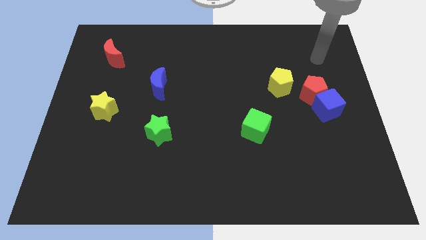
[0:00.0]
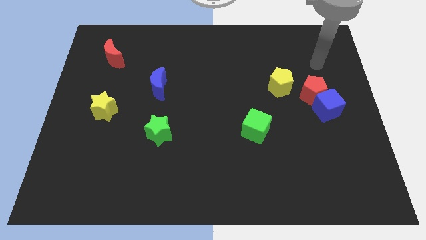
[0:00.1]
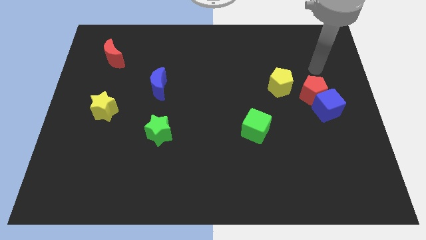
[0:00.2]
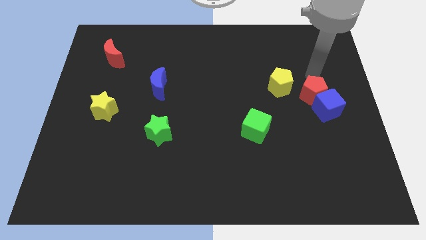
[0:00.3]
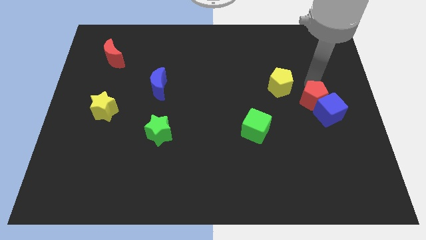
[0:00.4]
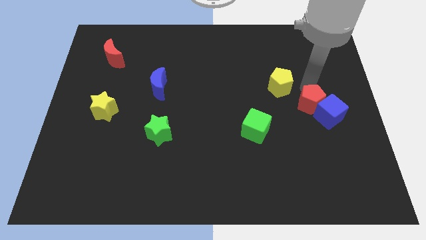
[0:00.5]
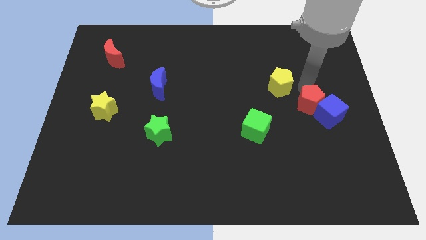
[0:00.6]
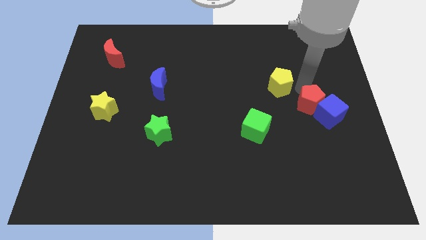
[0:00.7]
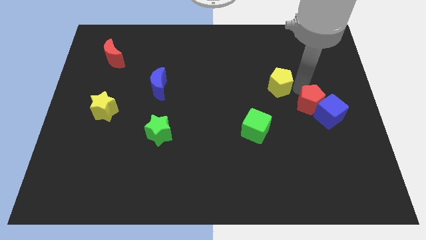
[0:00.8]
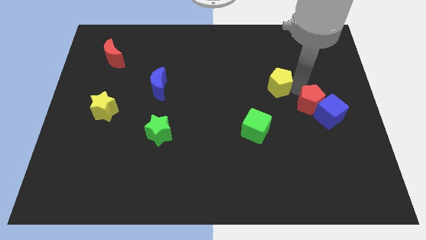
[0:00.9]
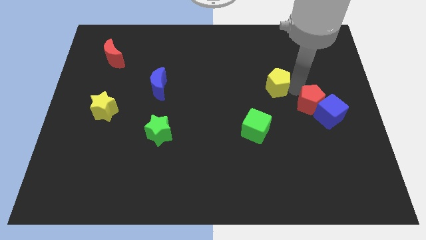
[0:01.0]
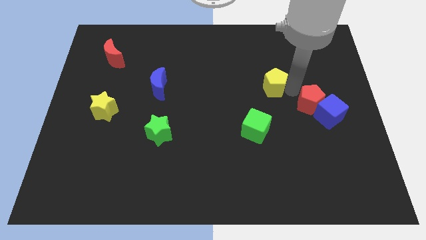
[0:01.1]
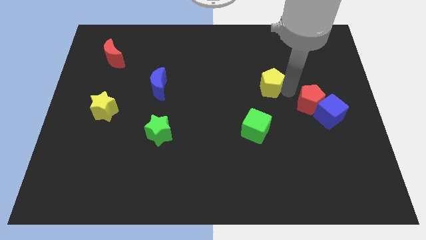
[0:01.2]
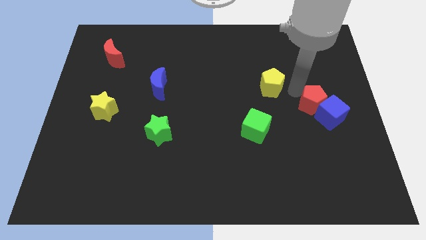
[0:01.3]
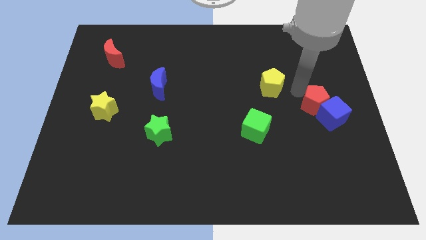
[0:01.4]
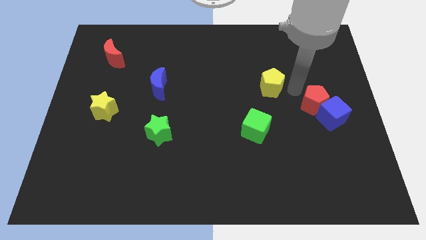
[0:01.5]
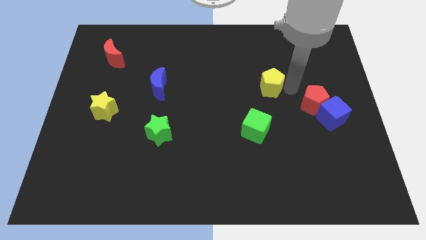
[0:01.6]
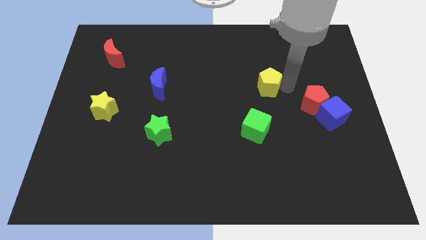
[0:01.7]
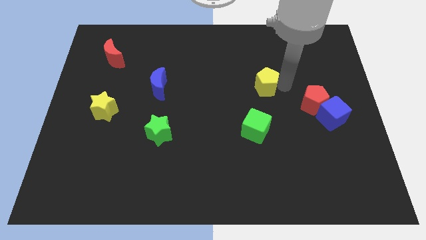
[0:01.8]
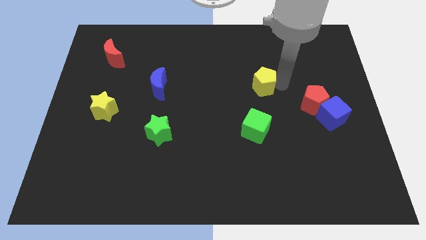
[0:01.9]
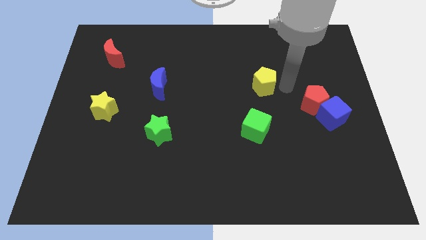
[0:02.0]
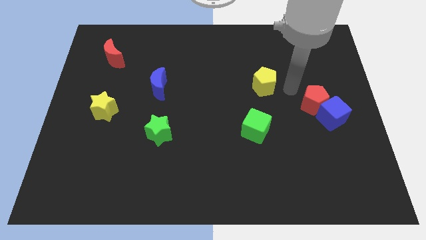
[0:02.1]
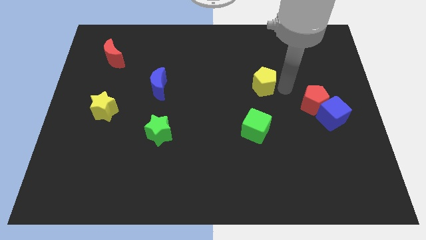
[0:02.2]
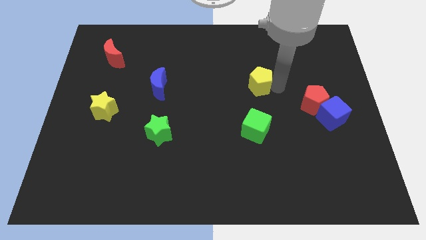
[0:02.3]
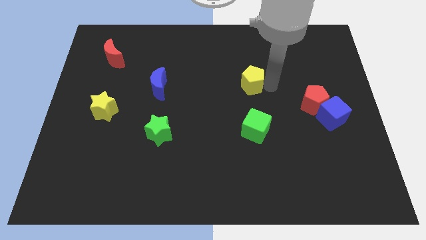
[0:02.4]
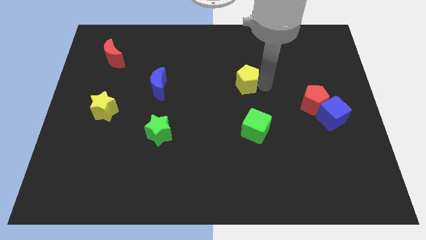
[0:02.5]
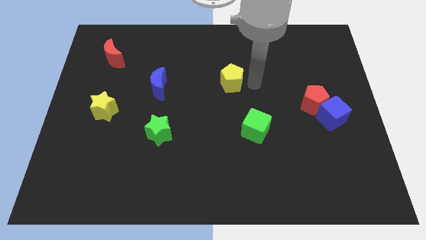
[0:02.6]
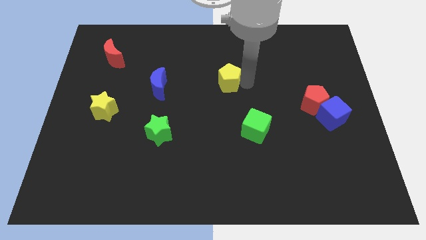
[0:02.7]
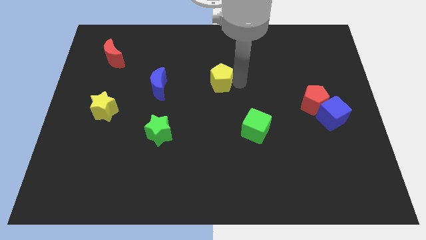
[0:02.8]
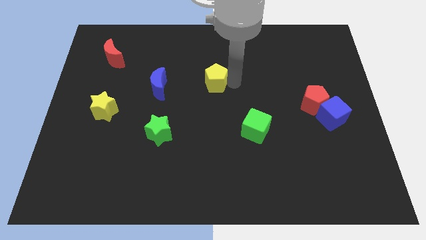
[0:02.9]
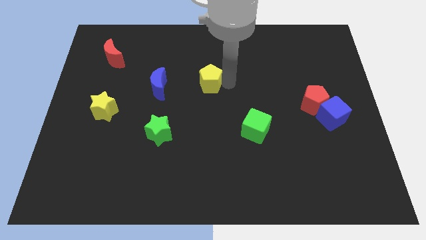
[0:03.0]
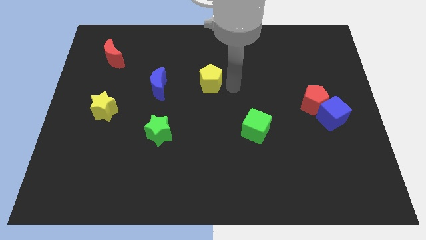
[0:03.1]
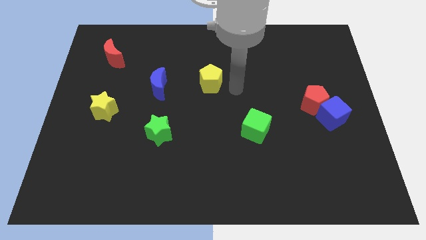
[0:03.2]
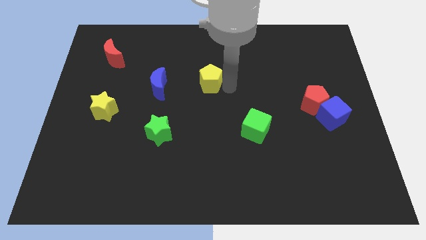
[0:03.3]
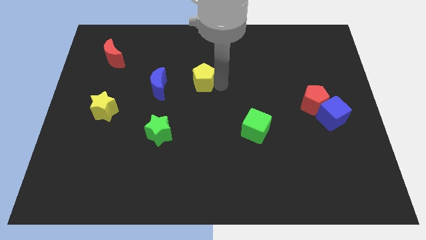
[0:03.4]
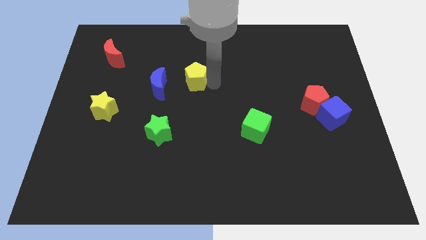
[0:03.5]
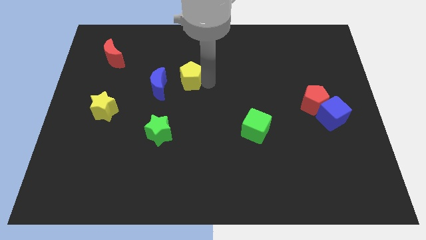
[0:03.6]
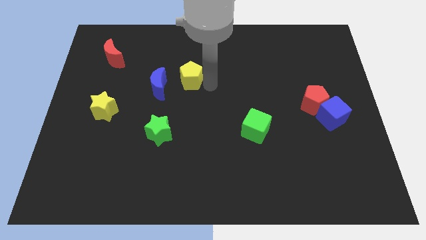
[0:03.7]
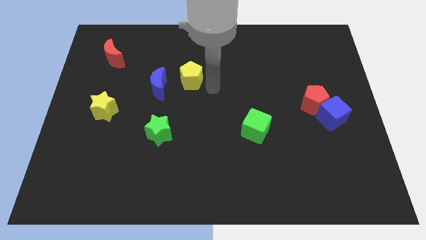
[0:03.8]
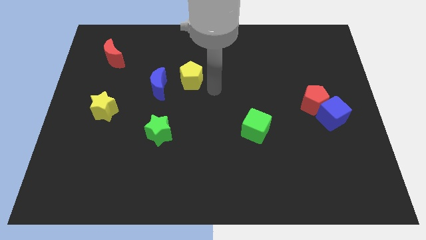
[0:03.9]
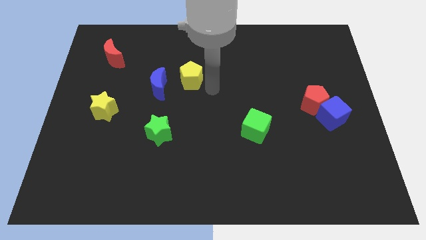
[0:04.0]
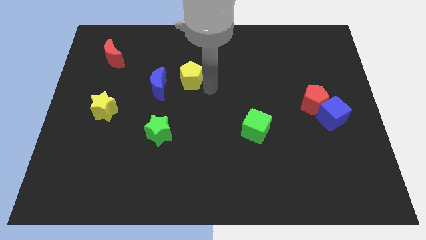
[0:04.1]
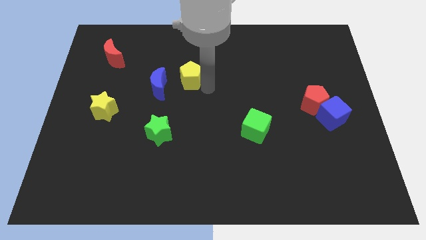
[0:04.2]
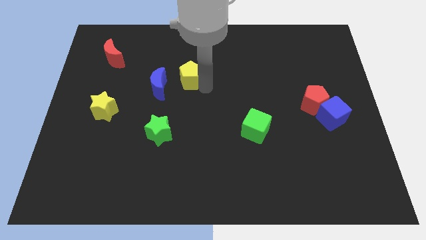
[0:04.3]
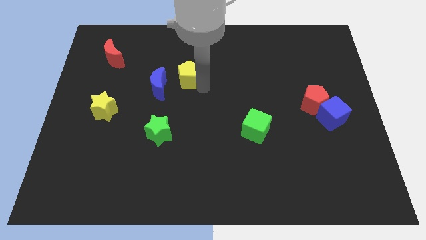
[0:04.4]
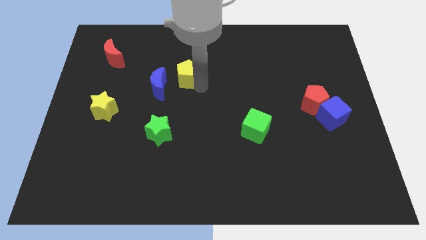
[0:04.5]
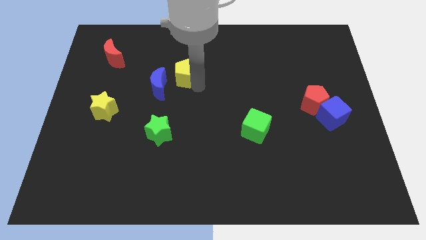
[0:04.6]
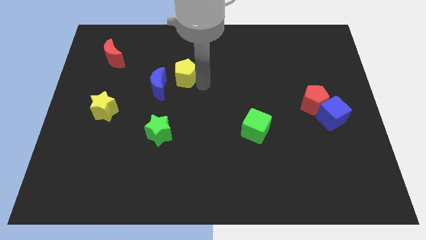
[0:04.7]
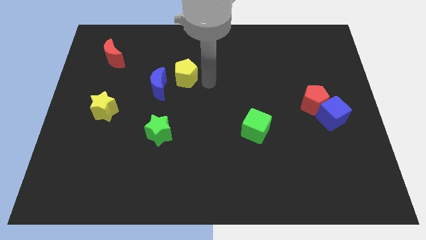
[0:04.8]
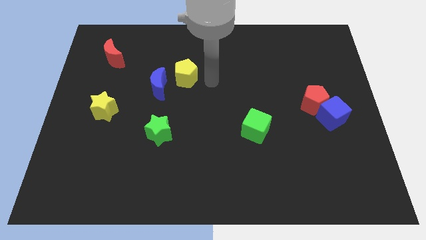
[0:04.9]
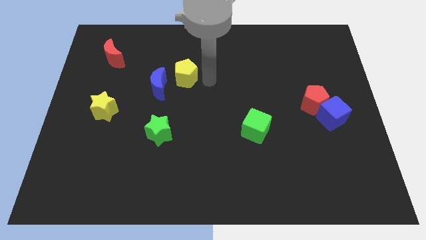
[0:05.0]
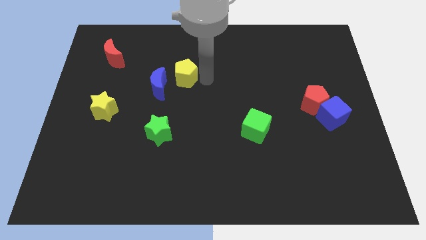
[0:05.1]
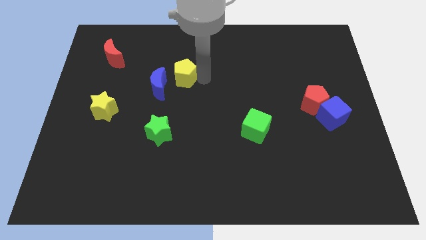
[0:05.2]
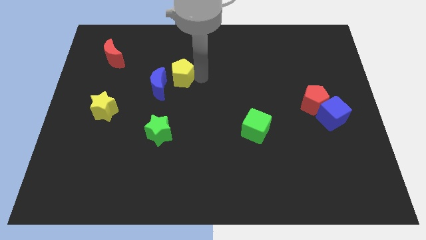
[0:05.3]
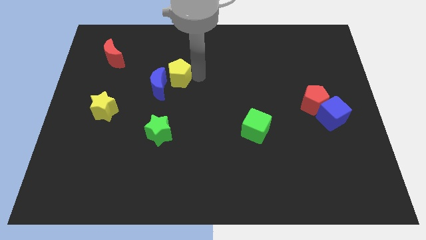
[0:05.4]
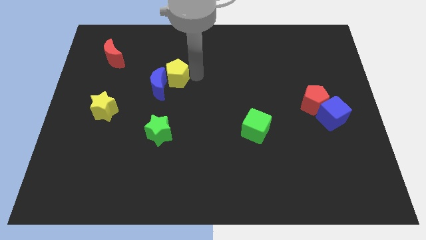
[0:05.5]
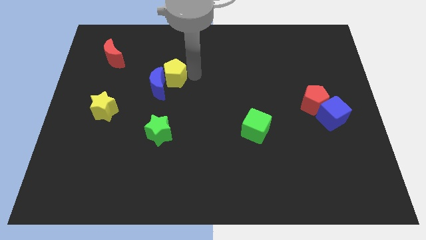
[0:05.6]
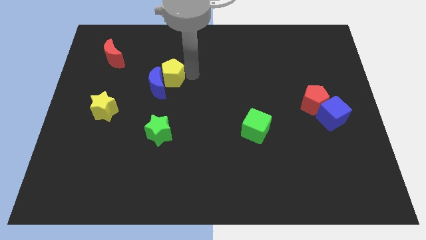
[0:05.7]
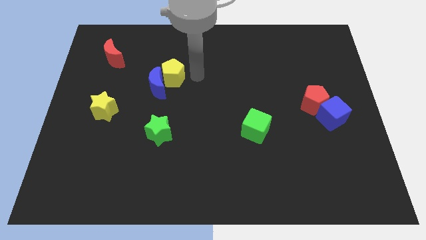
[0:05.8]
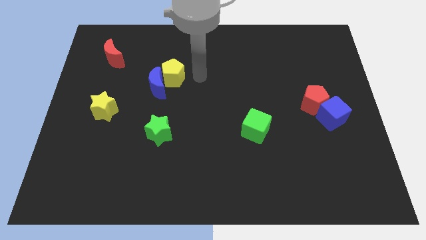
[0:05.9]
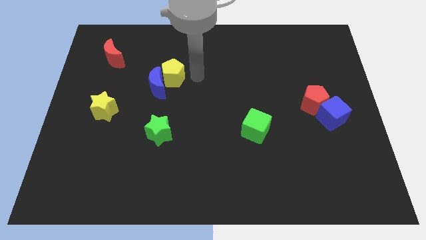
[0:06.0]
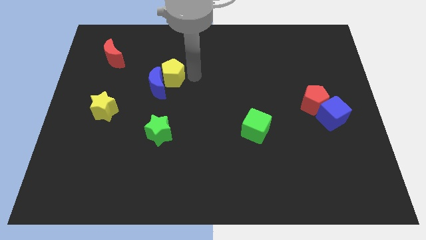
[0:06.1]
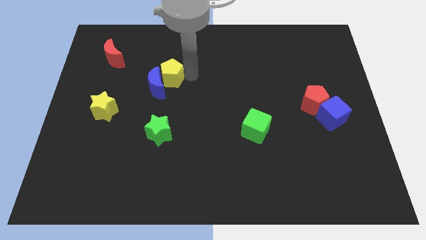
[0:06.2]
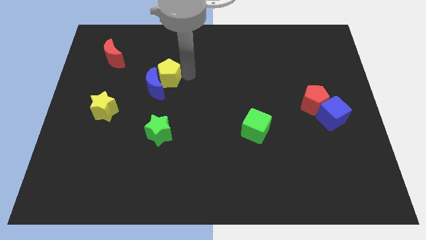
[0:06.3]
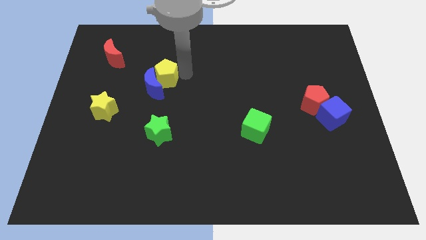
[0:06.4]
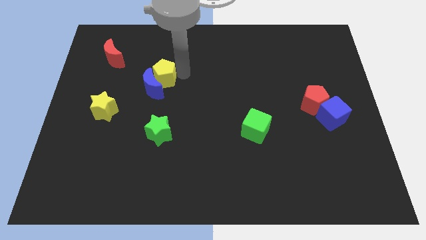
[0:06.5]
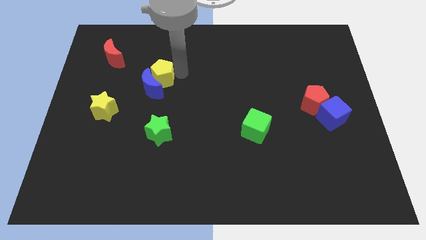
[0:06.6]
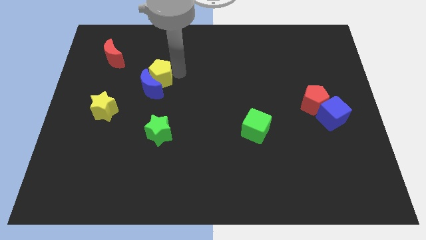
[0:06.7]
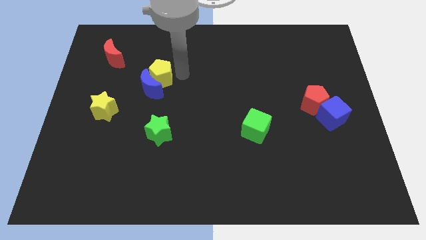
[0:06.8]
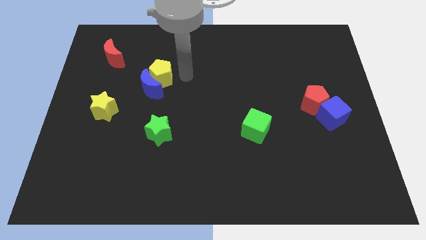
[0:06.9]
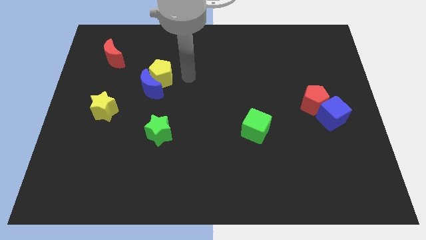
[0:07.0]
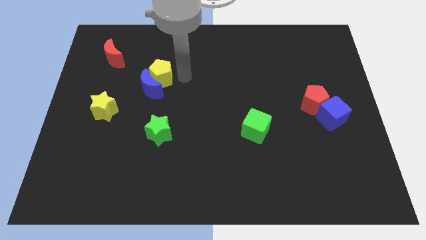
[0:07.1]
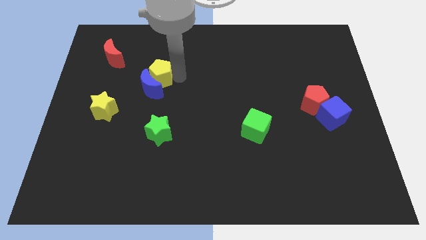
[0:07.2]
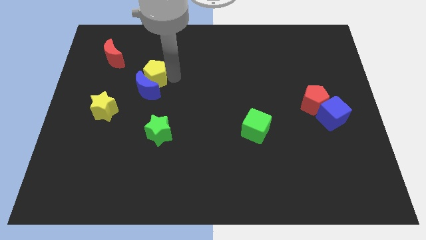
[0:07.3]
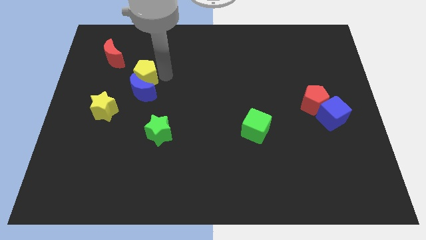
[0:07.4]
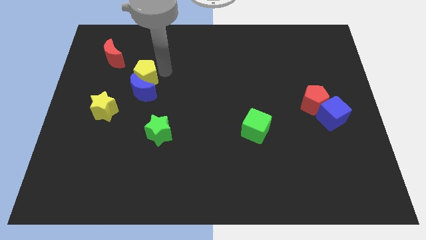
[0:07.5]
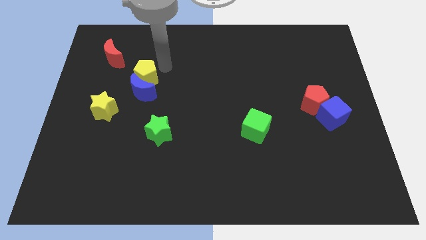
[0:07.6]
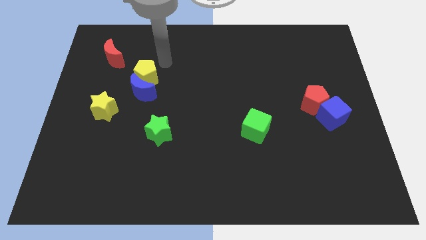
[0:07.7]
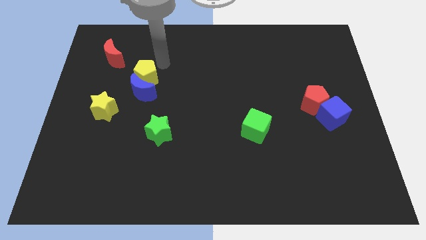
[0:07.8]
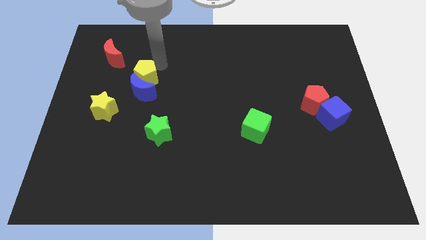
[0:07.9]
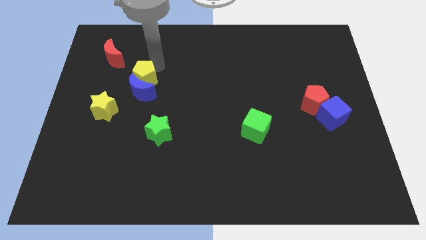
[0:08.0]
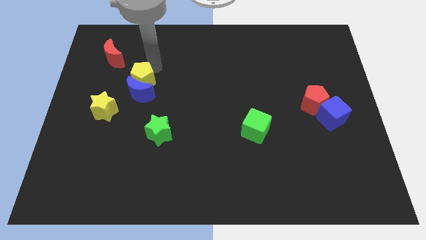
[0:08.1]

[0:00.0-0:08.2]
put the yellow pentagon to the top right side of the yellow star
